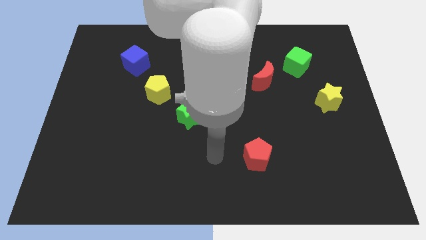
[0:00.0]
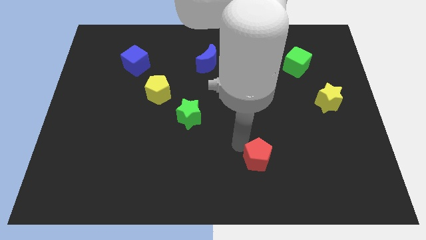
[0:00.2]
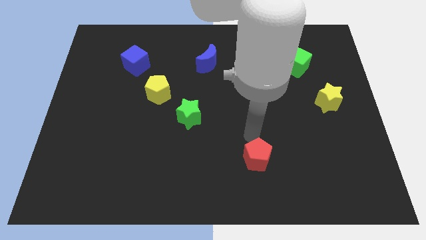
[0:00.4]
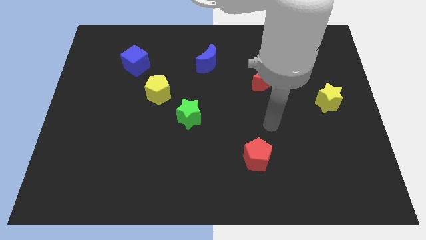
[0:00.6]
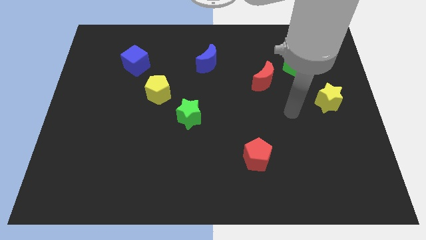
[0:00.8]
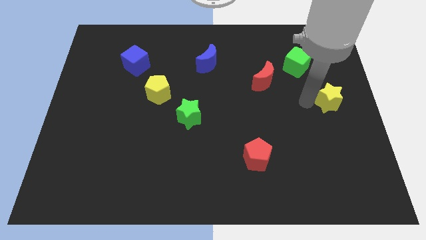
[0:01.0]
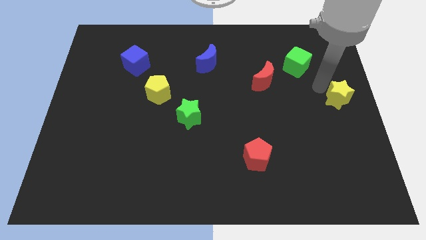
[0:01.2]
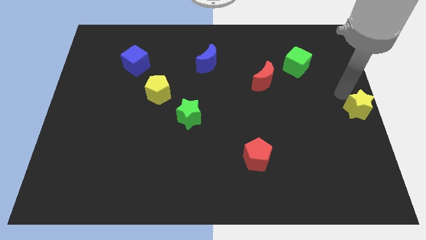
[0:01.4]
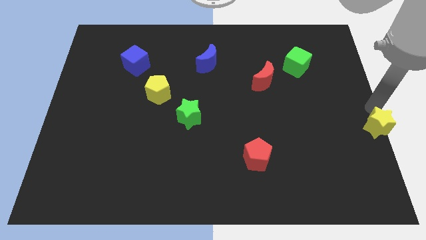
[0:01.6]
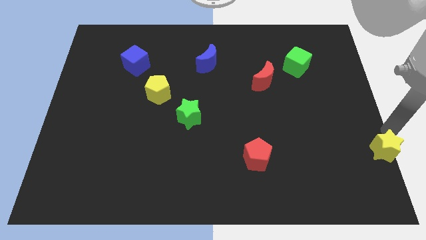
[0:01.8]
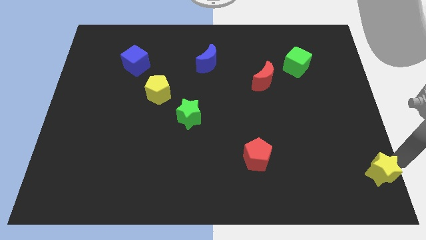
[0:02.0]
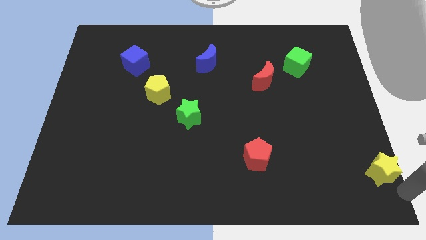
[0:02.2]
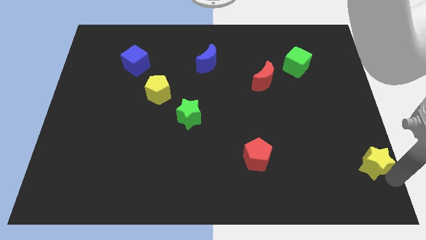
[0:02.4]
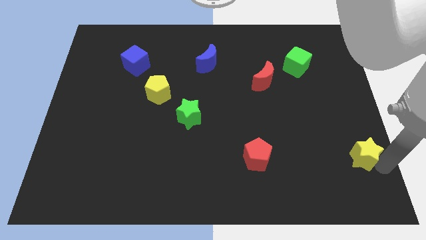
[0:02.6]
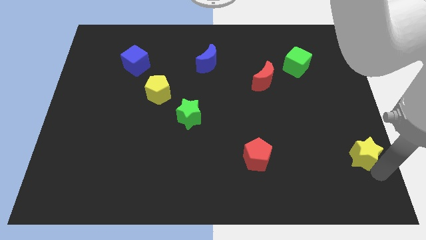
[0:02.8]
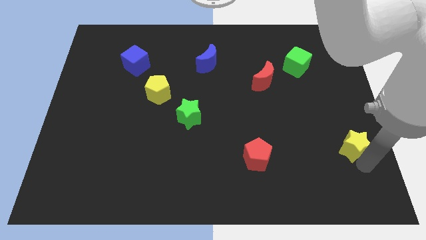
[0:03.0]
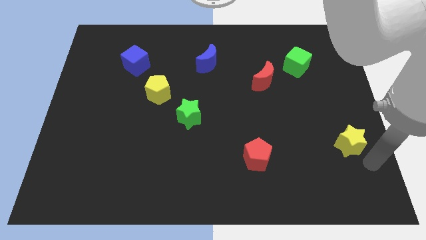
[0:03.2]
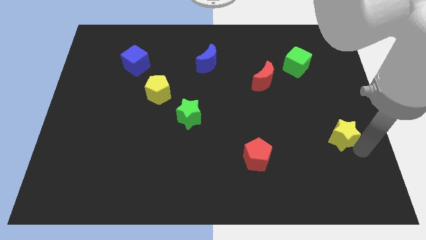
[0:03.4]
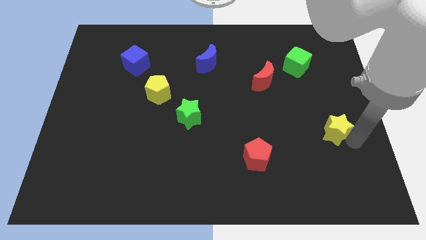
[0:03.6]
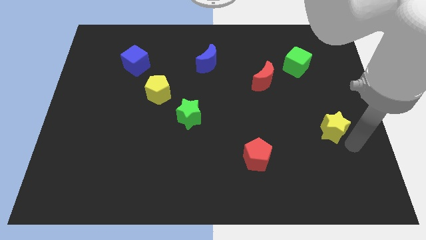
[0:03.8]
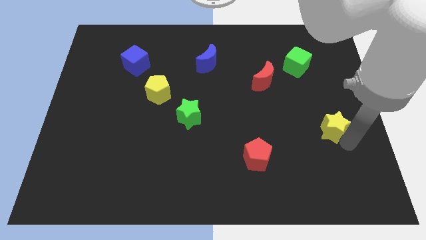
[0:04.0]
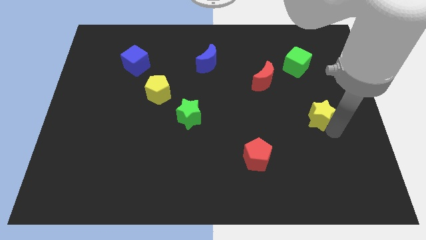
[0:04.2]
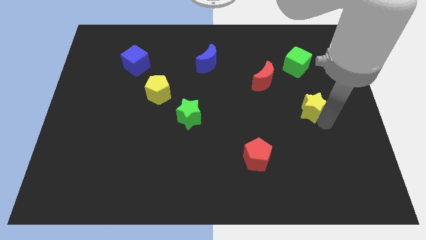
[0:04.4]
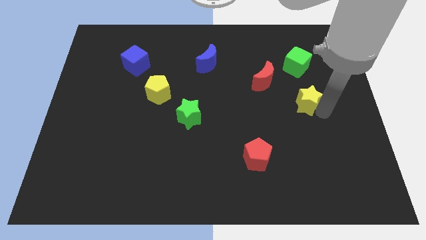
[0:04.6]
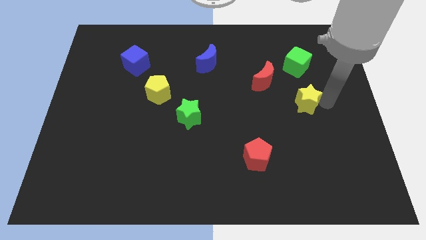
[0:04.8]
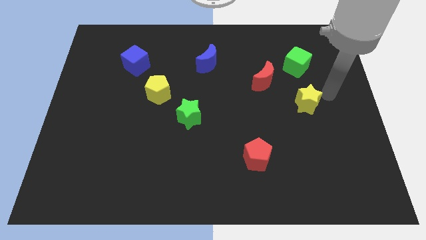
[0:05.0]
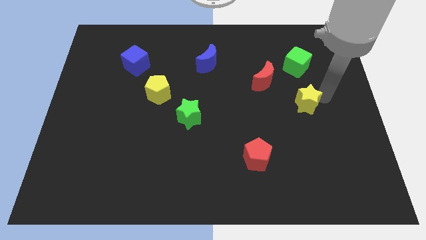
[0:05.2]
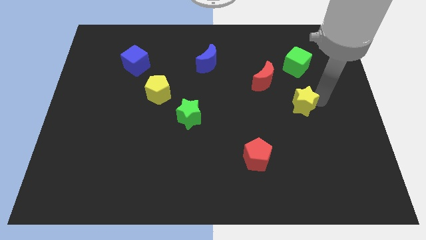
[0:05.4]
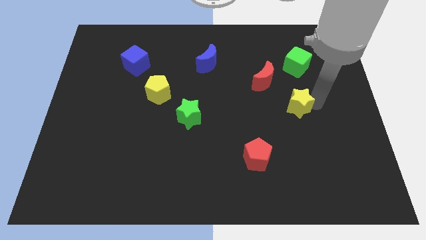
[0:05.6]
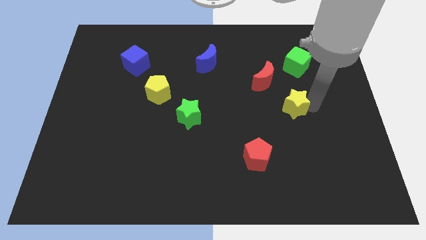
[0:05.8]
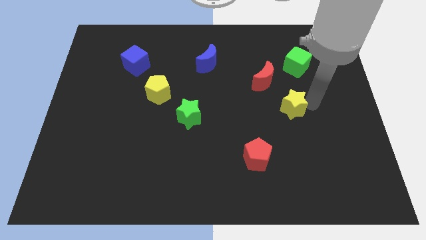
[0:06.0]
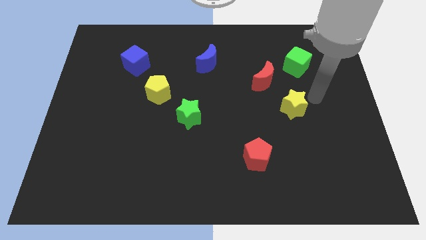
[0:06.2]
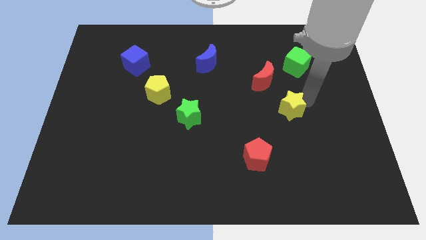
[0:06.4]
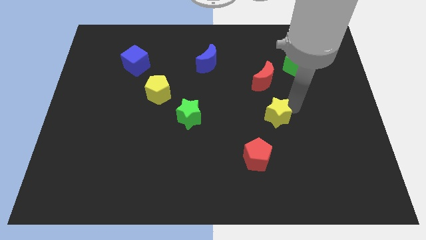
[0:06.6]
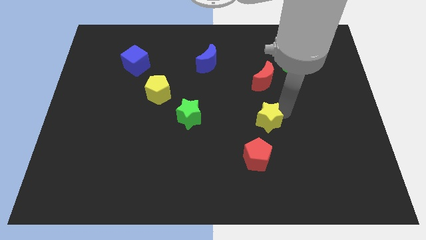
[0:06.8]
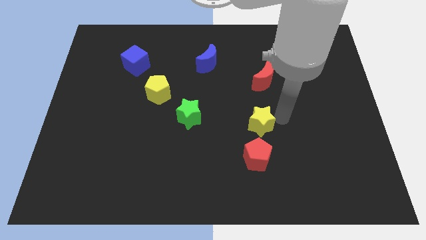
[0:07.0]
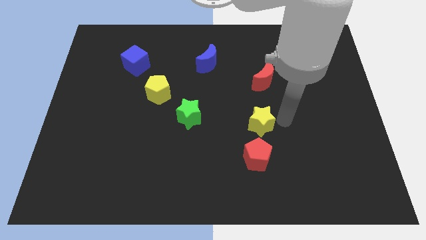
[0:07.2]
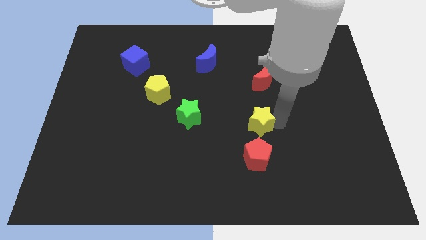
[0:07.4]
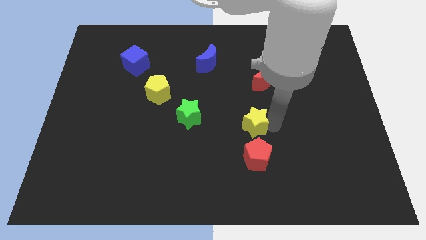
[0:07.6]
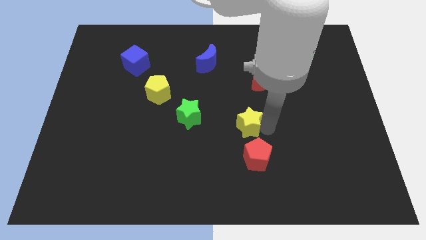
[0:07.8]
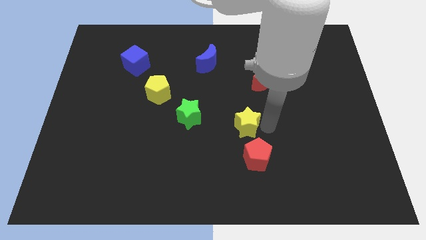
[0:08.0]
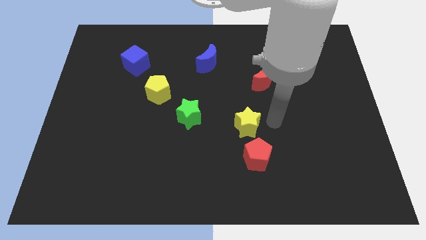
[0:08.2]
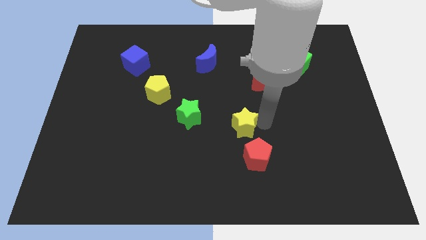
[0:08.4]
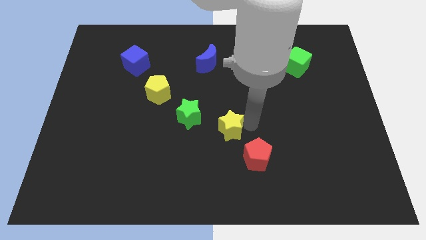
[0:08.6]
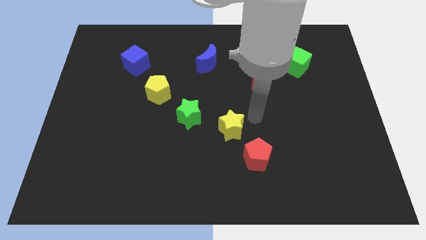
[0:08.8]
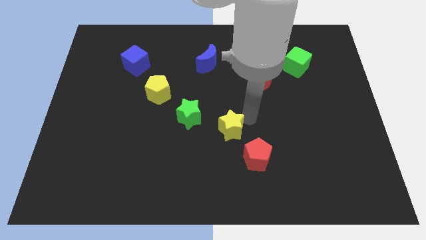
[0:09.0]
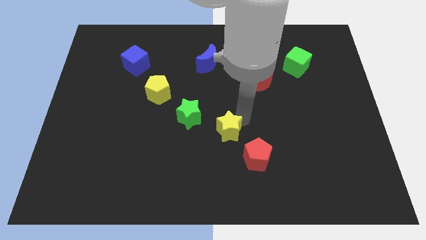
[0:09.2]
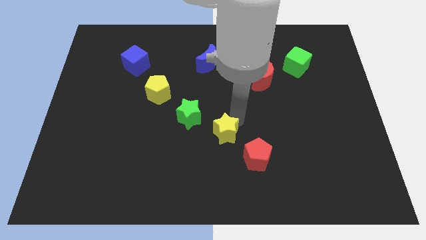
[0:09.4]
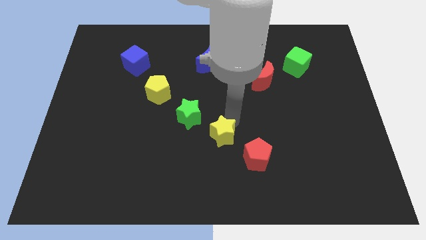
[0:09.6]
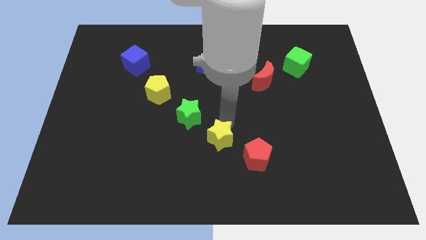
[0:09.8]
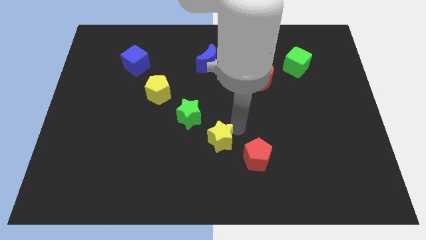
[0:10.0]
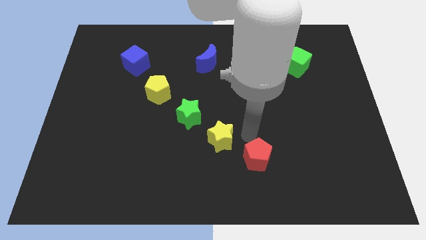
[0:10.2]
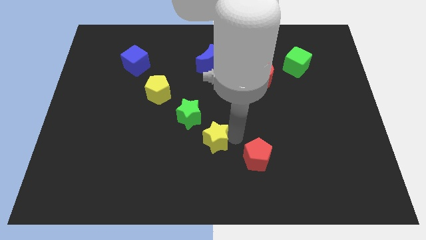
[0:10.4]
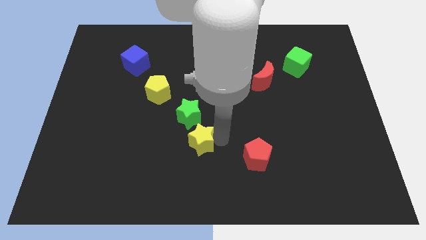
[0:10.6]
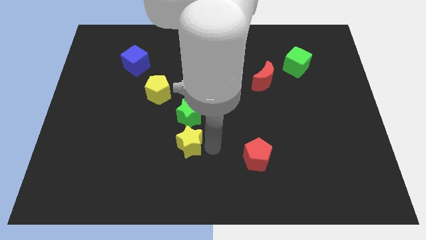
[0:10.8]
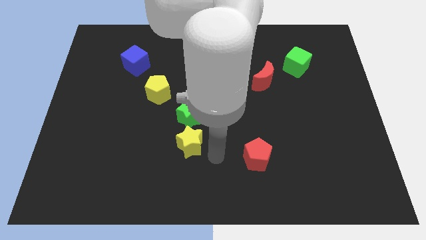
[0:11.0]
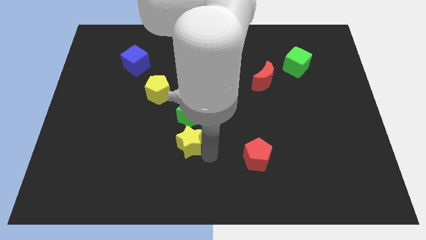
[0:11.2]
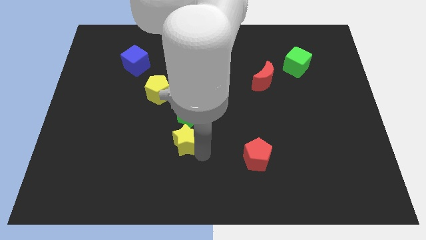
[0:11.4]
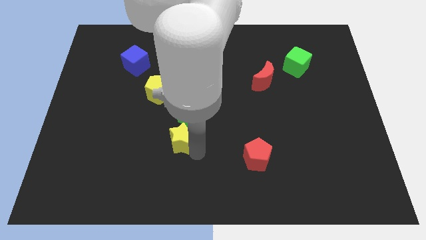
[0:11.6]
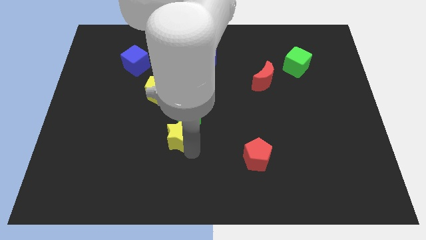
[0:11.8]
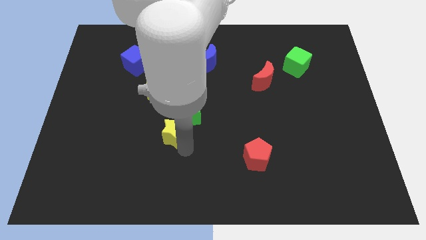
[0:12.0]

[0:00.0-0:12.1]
push the yellow star below the yellow pentagon
